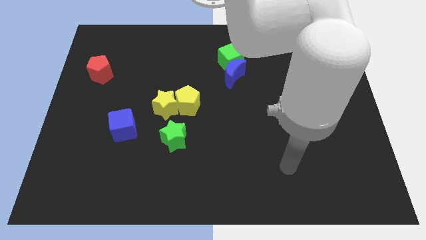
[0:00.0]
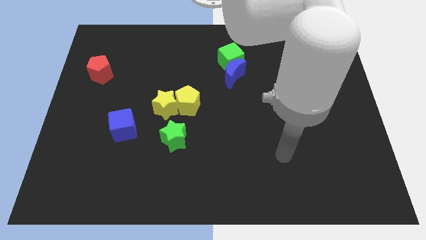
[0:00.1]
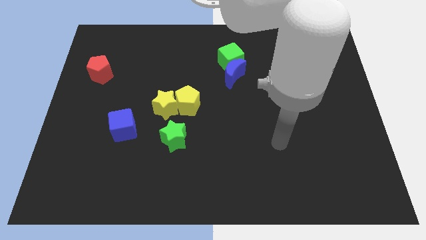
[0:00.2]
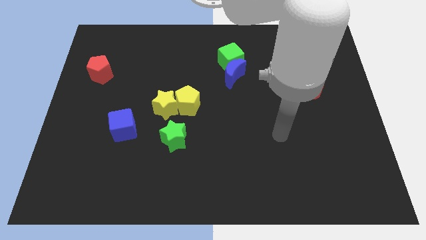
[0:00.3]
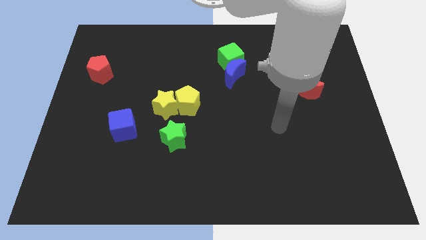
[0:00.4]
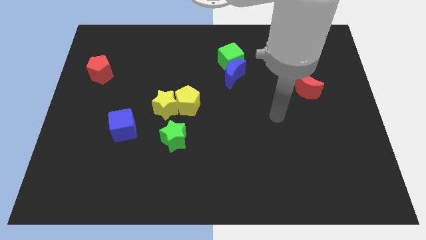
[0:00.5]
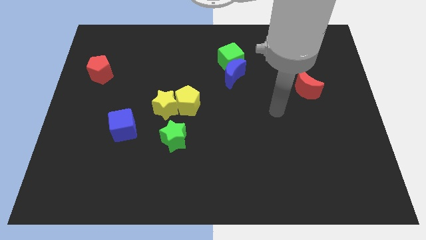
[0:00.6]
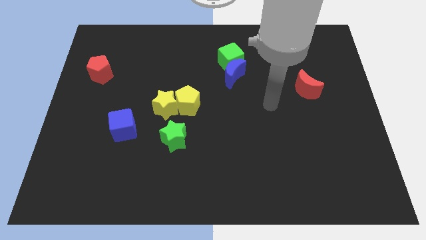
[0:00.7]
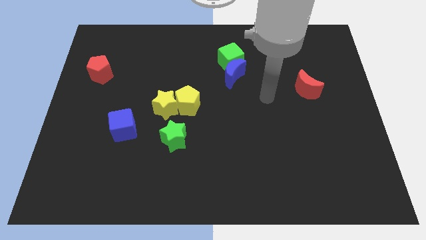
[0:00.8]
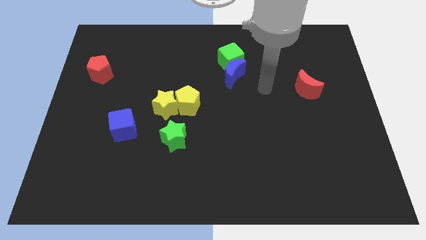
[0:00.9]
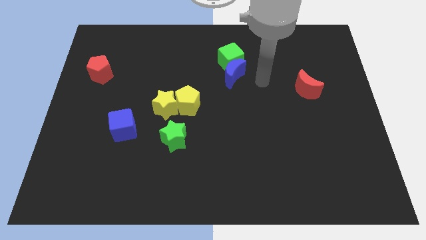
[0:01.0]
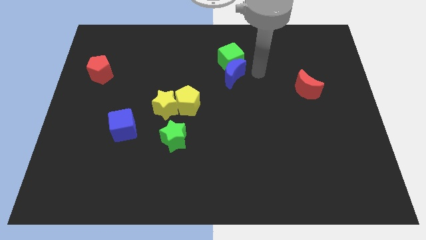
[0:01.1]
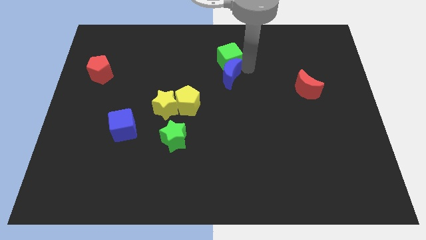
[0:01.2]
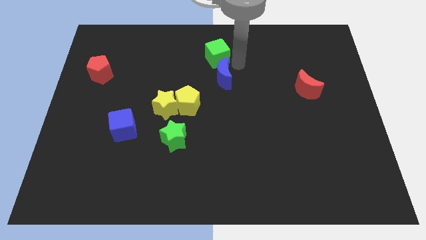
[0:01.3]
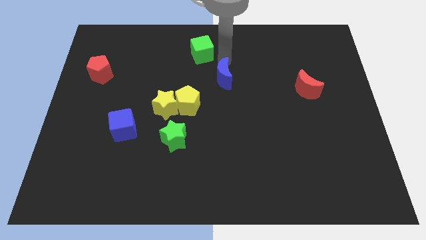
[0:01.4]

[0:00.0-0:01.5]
pull the blue moon apart from the green cube

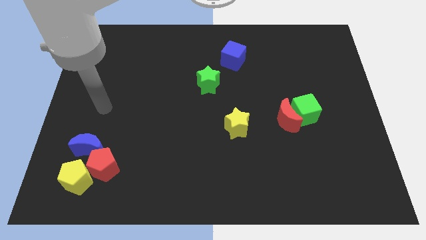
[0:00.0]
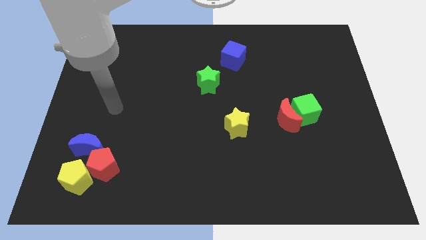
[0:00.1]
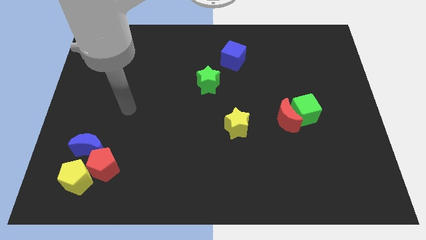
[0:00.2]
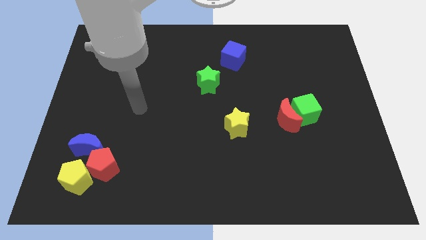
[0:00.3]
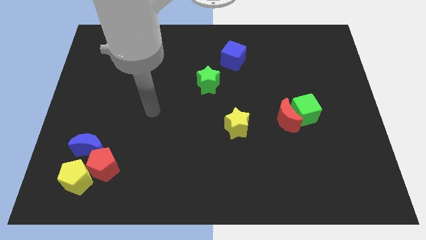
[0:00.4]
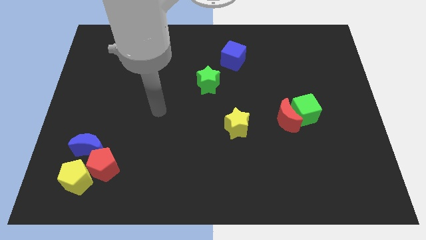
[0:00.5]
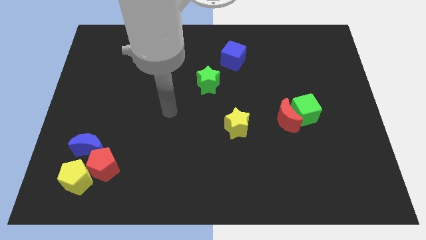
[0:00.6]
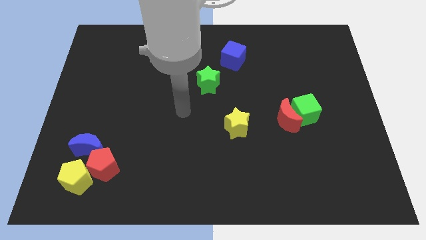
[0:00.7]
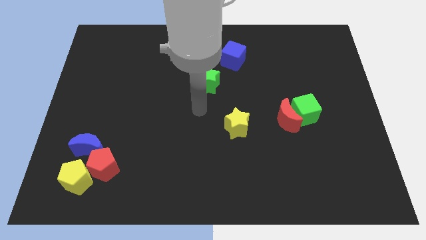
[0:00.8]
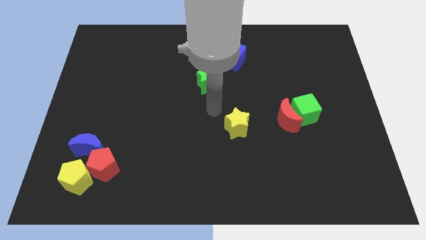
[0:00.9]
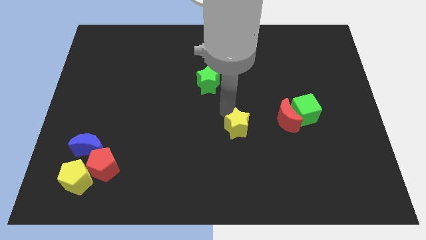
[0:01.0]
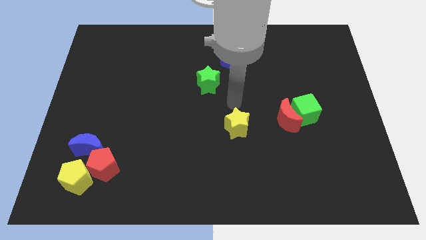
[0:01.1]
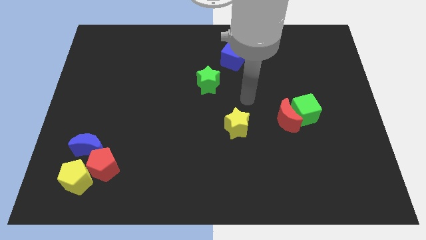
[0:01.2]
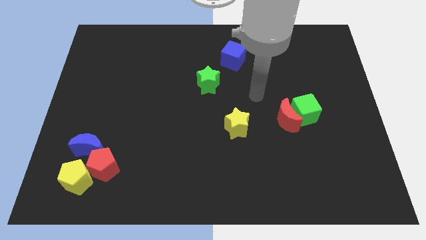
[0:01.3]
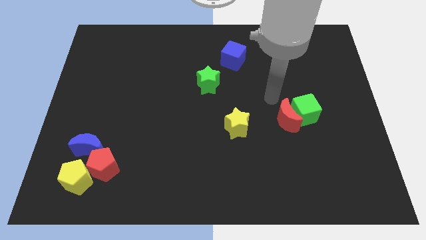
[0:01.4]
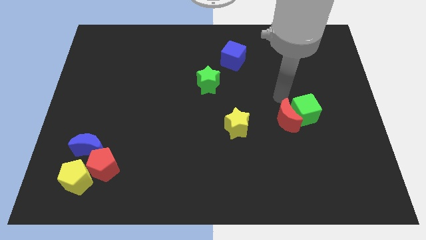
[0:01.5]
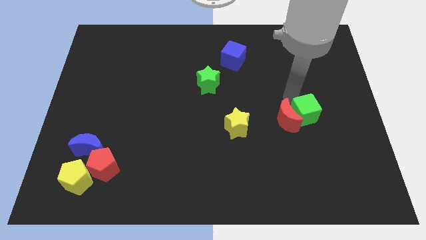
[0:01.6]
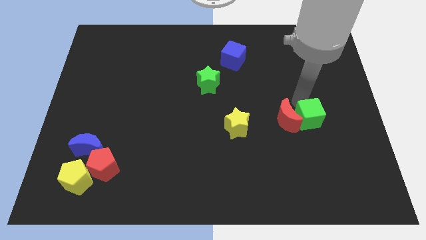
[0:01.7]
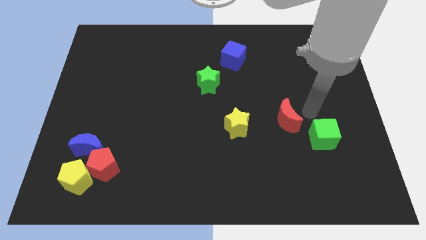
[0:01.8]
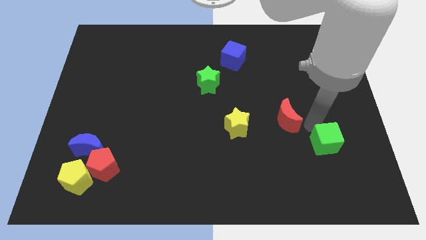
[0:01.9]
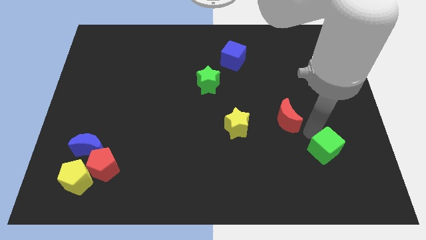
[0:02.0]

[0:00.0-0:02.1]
move the red moon away from the green cube

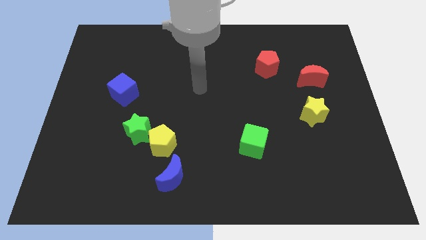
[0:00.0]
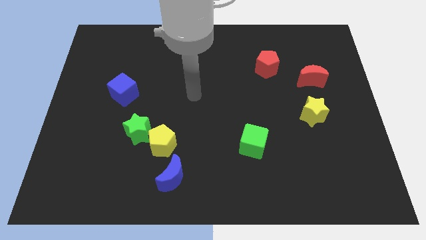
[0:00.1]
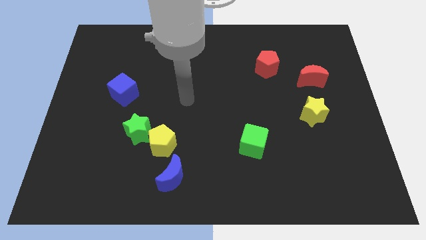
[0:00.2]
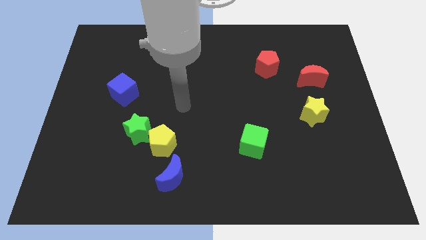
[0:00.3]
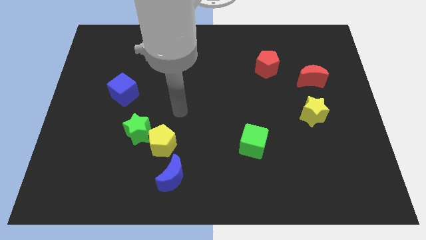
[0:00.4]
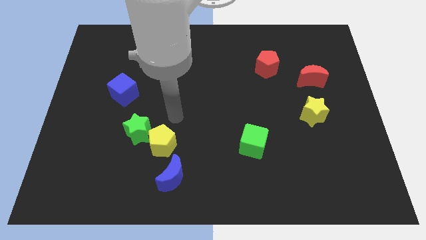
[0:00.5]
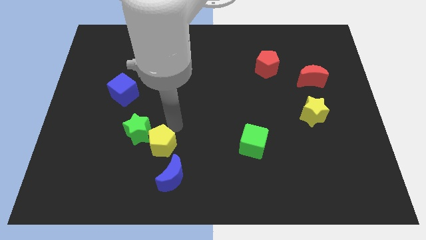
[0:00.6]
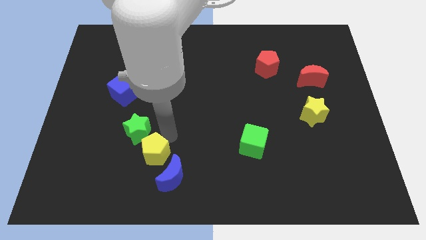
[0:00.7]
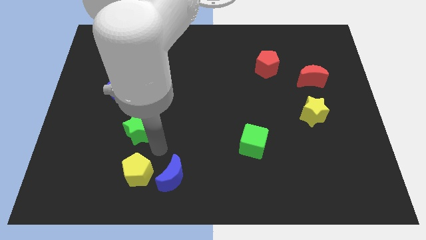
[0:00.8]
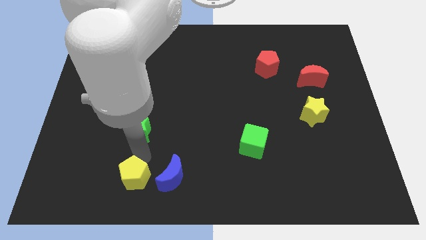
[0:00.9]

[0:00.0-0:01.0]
pull the green star apart from the yellow pentagon

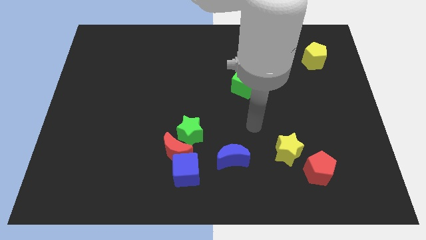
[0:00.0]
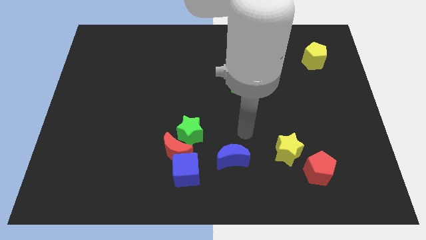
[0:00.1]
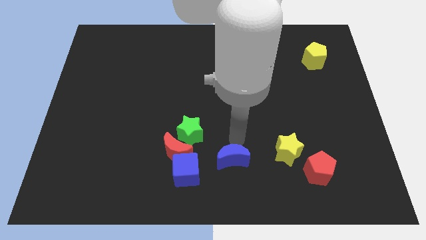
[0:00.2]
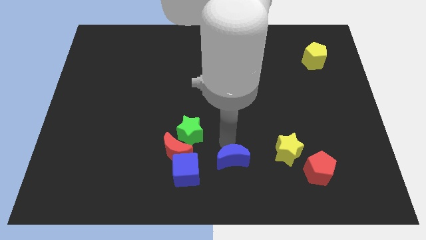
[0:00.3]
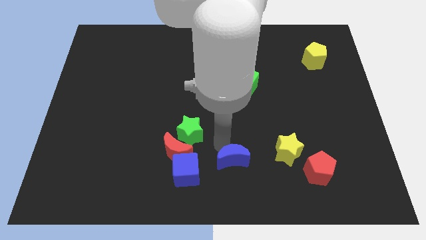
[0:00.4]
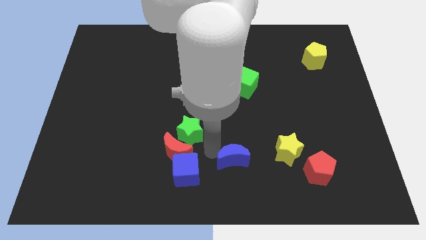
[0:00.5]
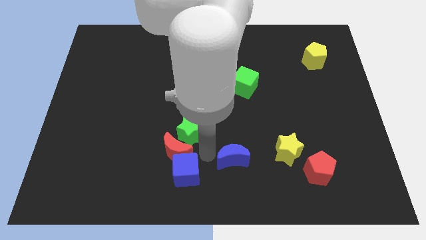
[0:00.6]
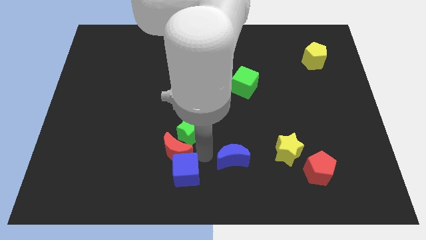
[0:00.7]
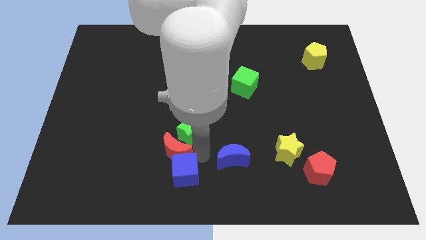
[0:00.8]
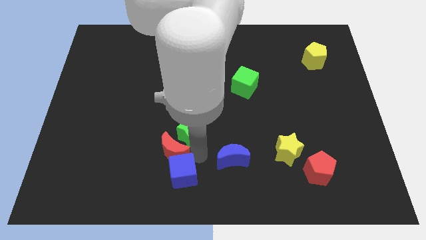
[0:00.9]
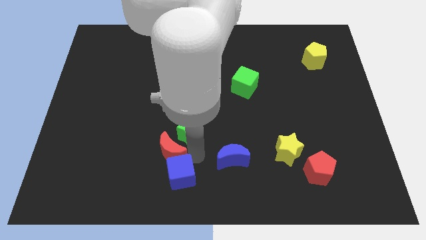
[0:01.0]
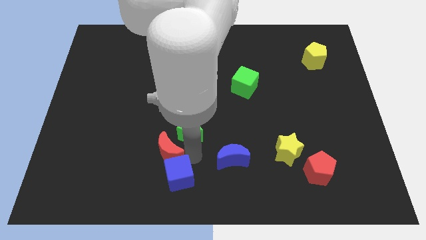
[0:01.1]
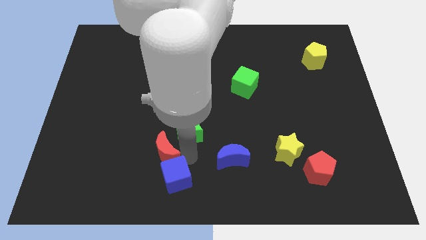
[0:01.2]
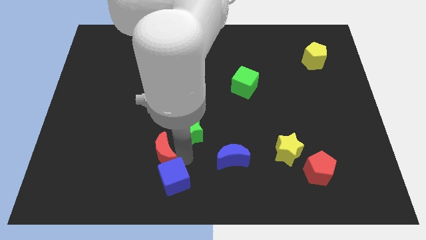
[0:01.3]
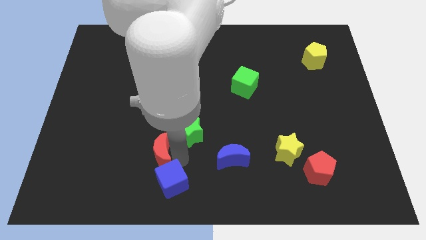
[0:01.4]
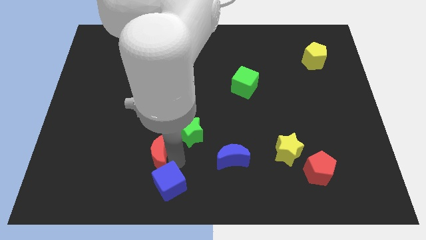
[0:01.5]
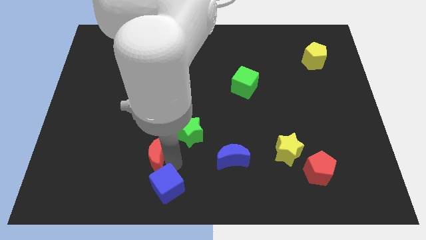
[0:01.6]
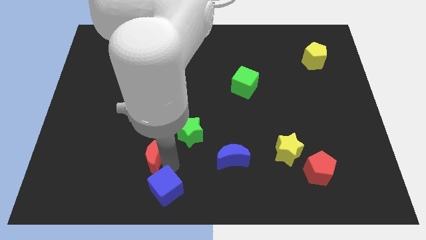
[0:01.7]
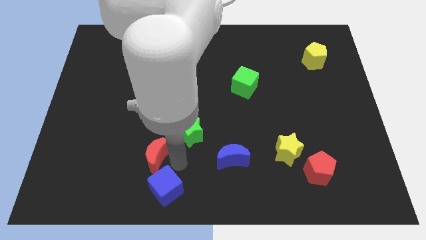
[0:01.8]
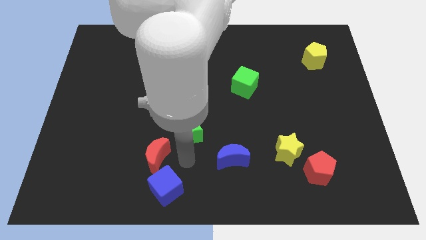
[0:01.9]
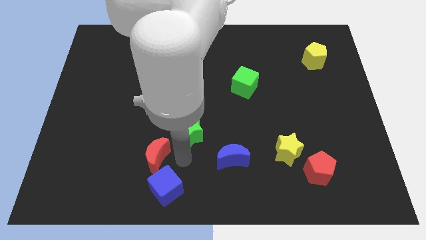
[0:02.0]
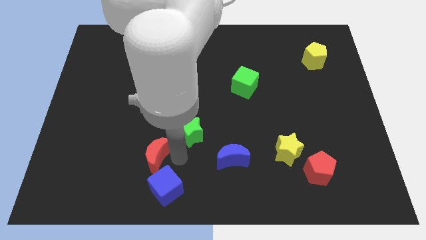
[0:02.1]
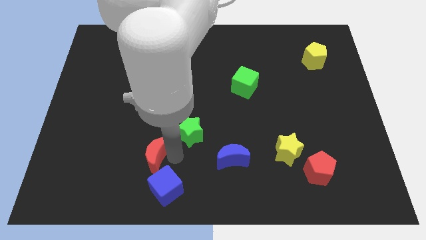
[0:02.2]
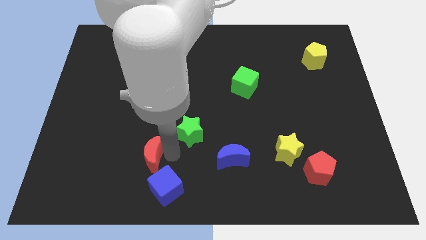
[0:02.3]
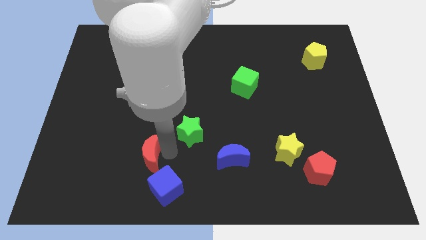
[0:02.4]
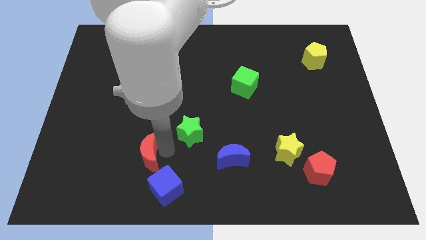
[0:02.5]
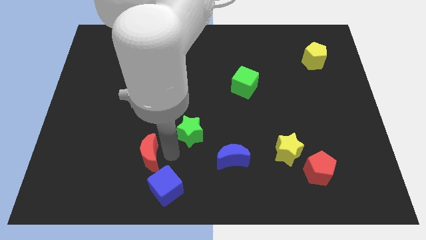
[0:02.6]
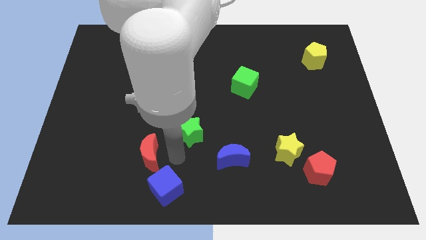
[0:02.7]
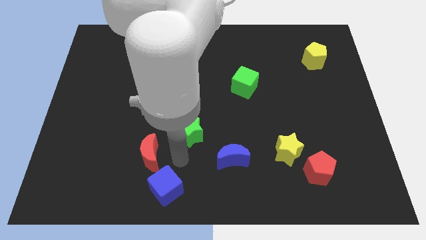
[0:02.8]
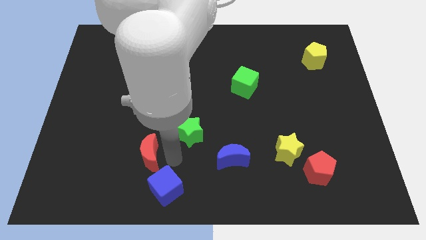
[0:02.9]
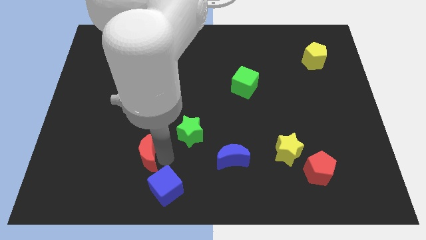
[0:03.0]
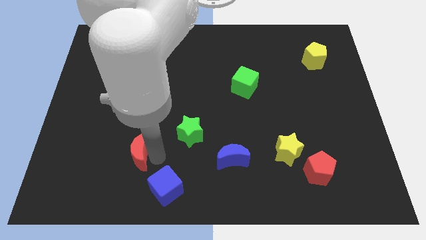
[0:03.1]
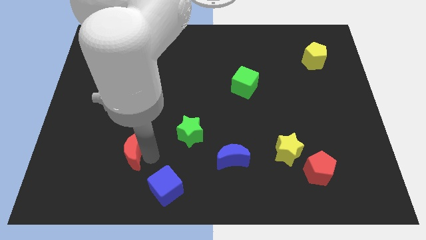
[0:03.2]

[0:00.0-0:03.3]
pull the red moon apart from the blue cube and green star

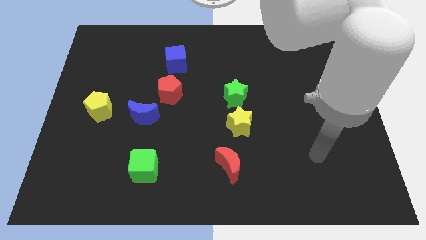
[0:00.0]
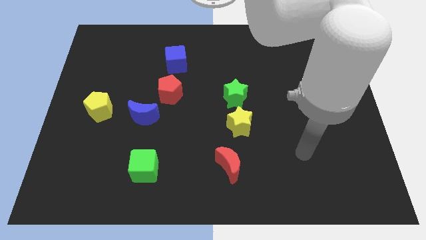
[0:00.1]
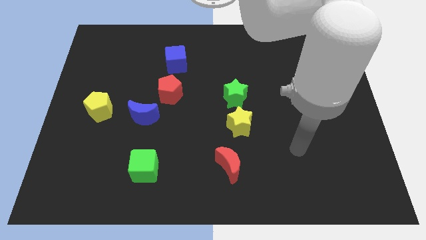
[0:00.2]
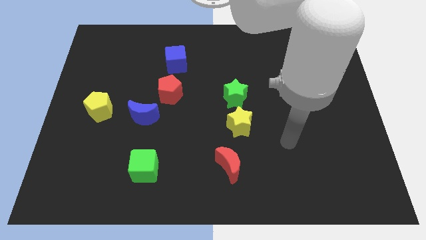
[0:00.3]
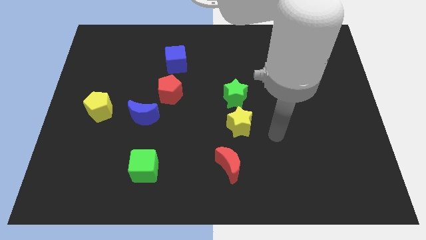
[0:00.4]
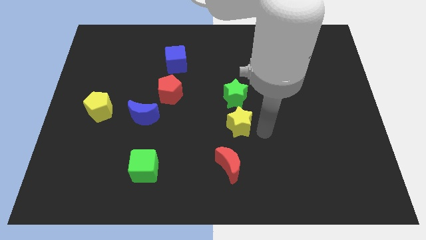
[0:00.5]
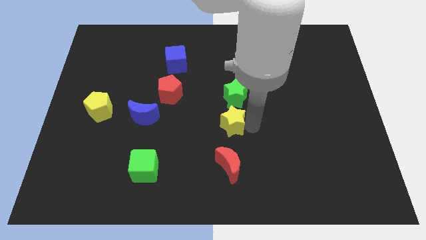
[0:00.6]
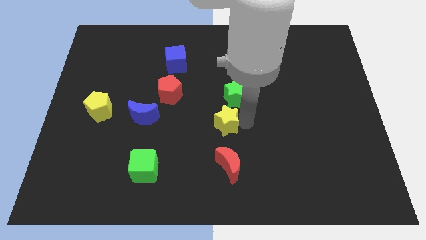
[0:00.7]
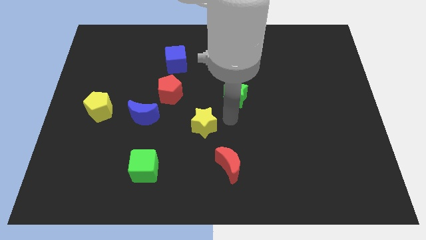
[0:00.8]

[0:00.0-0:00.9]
pull the green star apart from the yellow star

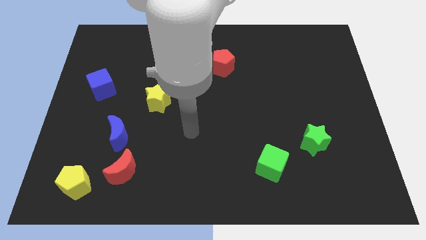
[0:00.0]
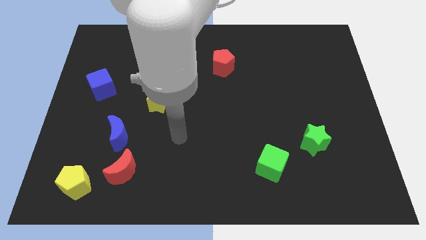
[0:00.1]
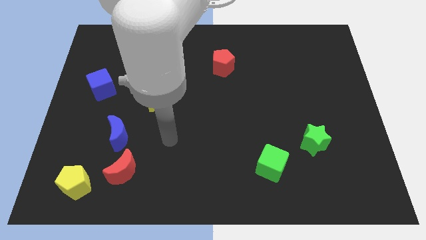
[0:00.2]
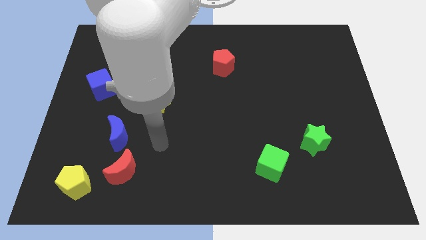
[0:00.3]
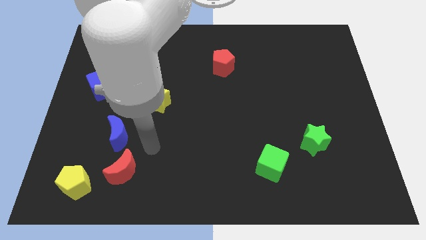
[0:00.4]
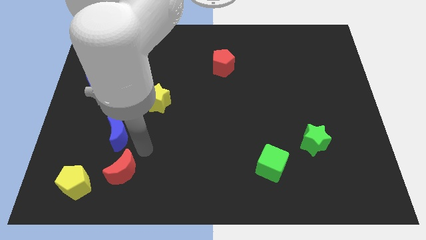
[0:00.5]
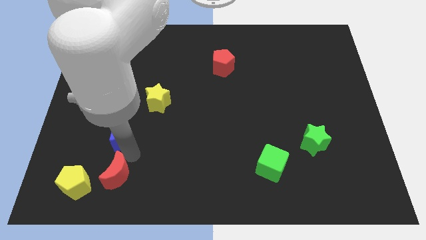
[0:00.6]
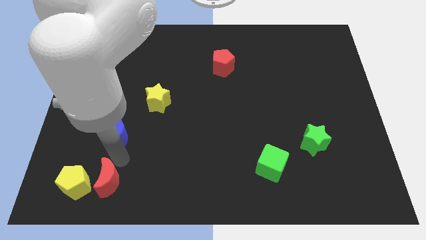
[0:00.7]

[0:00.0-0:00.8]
move the blue moon away from the red moon
